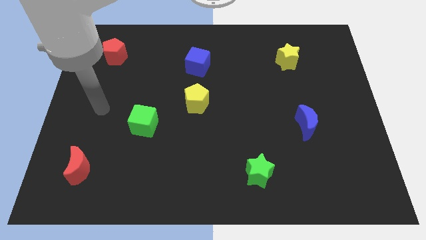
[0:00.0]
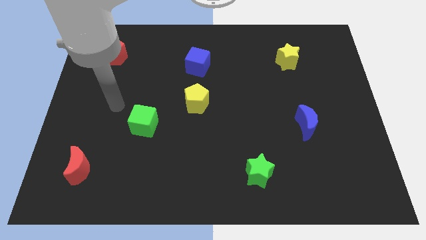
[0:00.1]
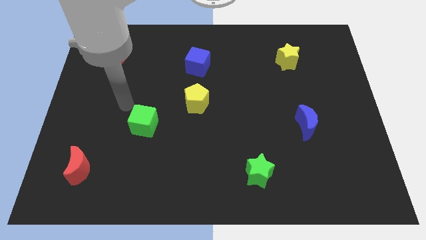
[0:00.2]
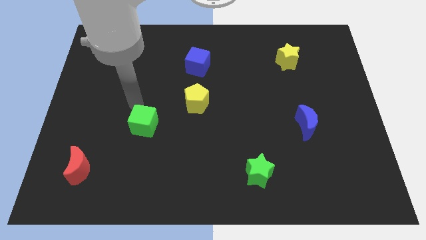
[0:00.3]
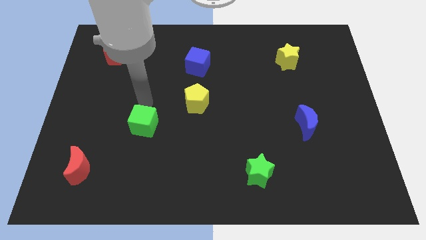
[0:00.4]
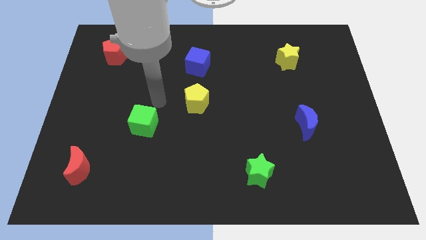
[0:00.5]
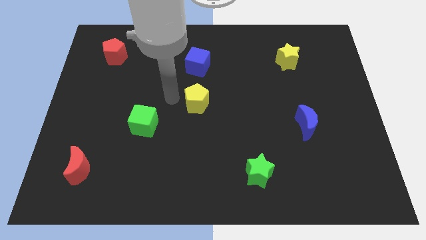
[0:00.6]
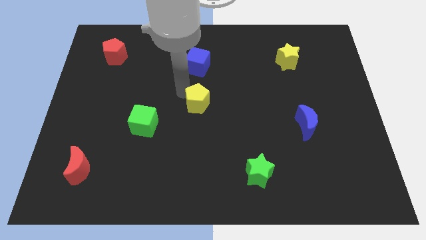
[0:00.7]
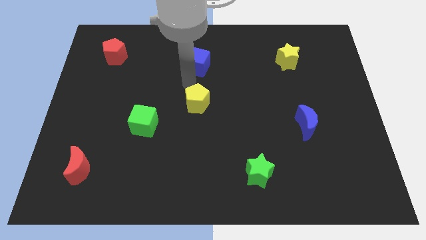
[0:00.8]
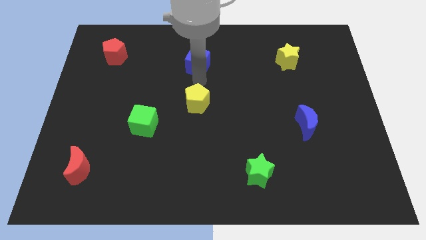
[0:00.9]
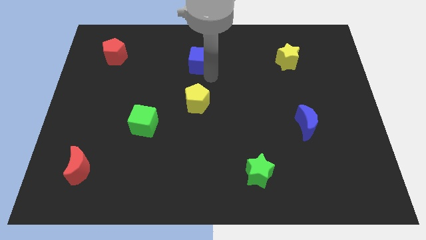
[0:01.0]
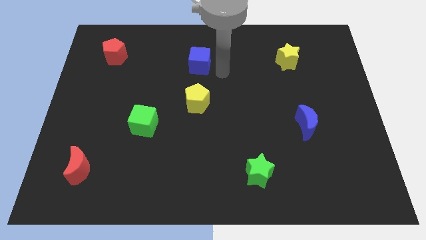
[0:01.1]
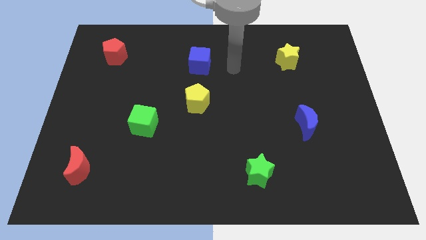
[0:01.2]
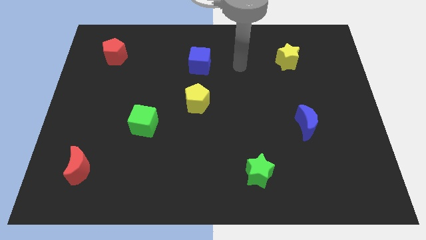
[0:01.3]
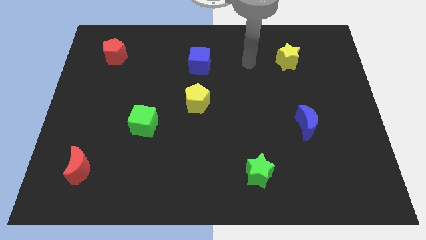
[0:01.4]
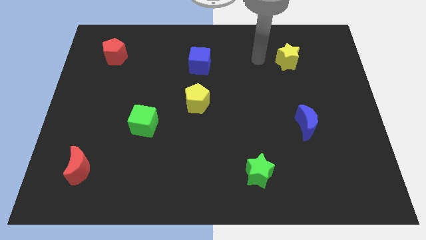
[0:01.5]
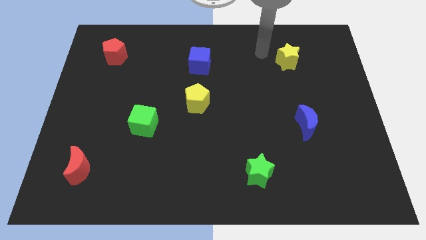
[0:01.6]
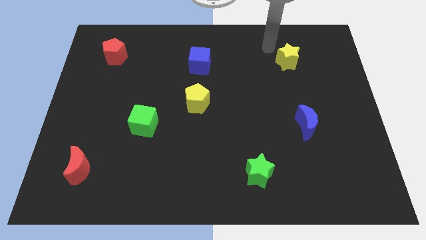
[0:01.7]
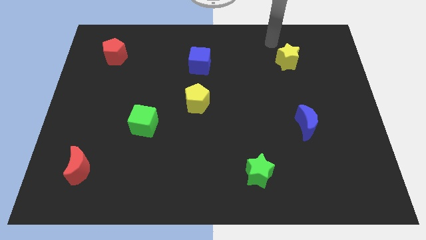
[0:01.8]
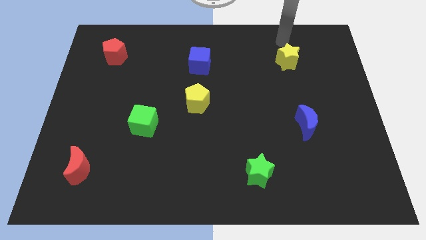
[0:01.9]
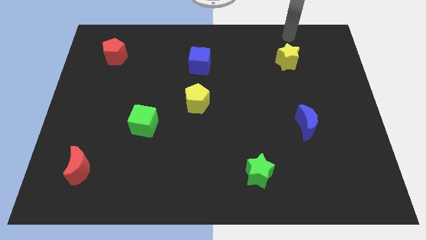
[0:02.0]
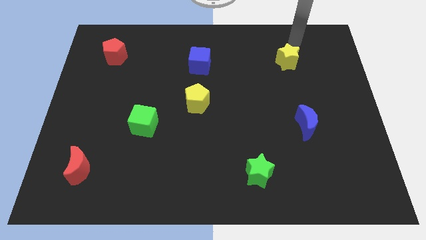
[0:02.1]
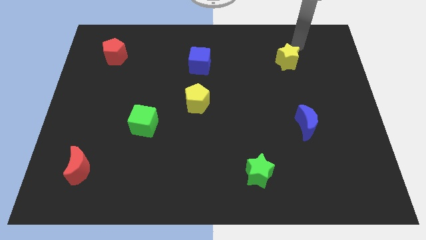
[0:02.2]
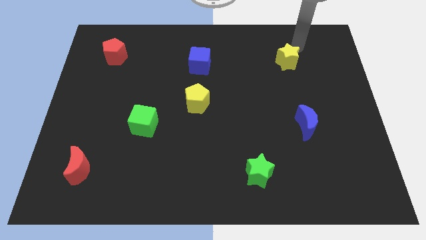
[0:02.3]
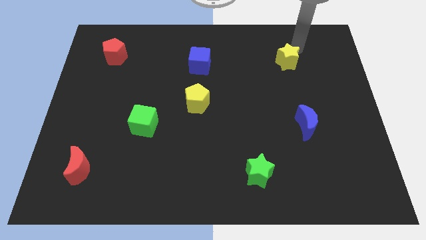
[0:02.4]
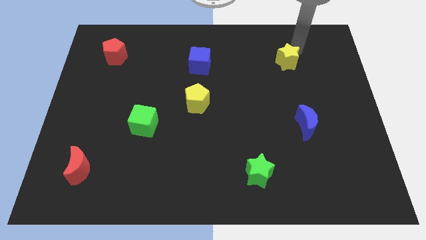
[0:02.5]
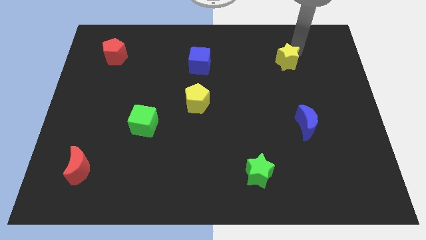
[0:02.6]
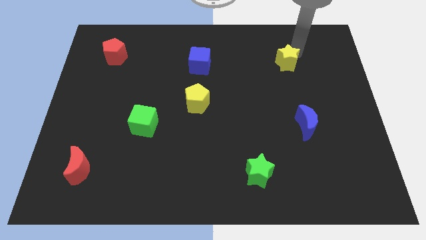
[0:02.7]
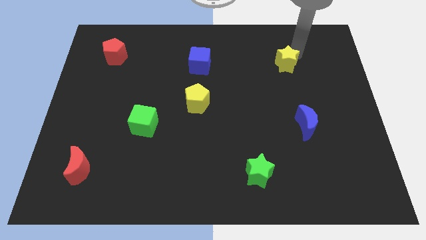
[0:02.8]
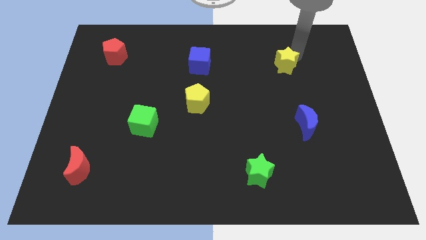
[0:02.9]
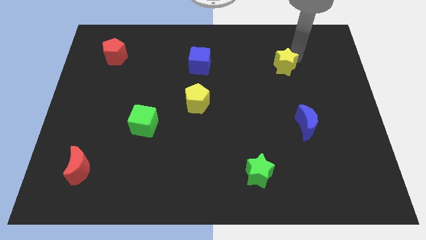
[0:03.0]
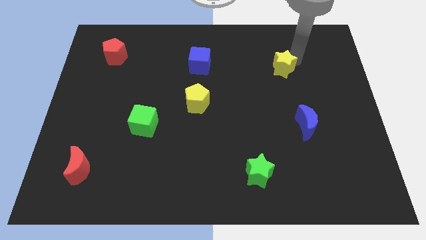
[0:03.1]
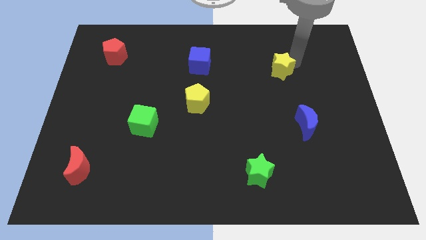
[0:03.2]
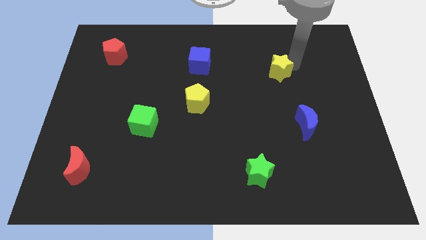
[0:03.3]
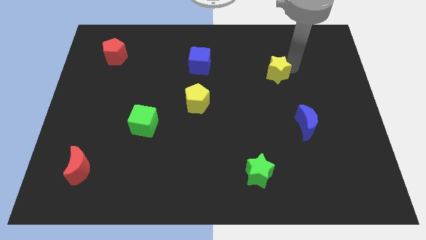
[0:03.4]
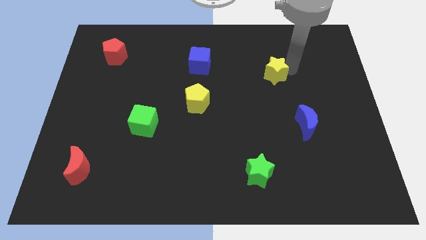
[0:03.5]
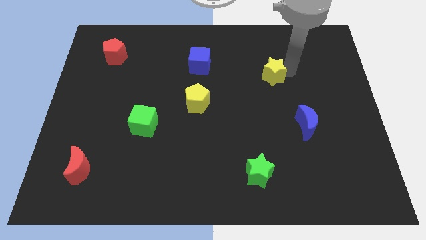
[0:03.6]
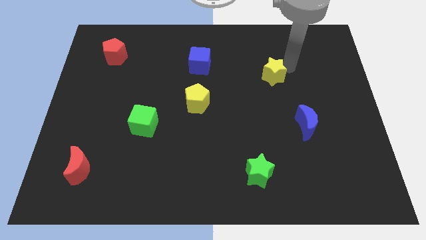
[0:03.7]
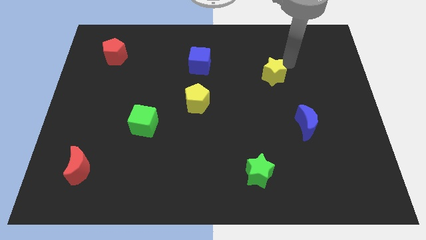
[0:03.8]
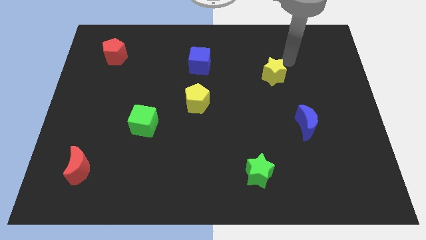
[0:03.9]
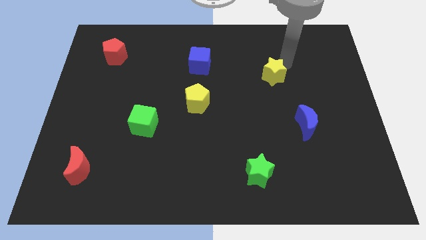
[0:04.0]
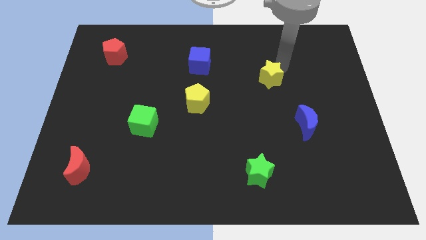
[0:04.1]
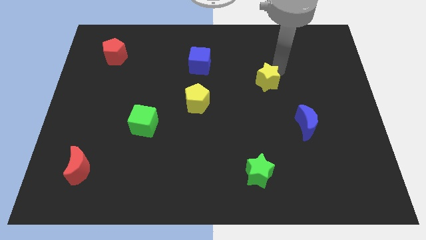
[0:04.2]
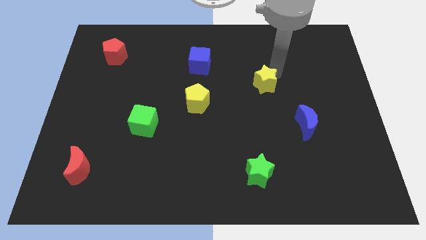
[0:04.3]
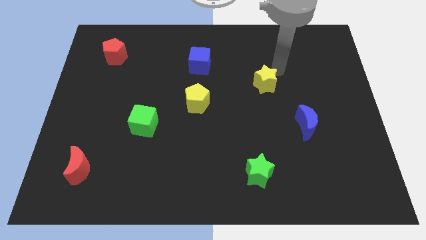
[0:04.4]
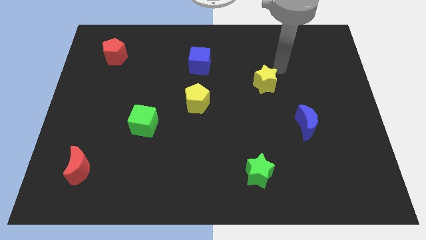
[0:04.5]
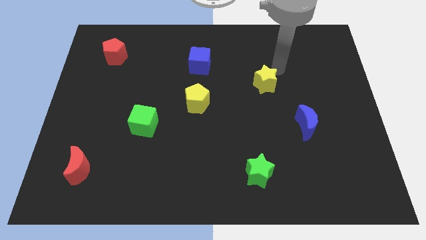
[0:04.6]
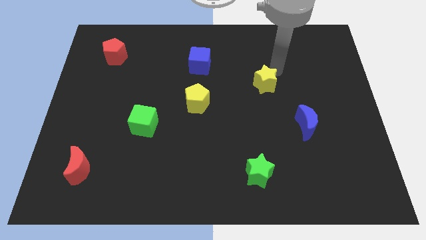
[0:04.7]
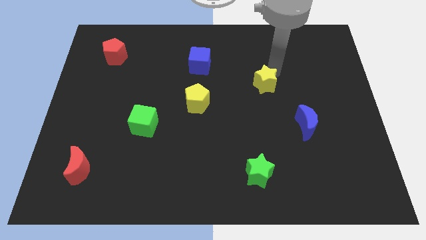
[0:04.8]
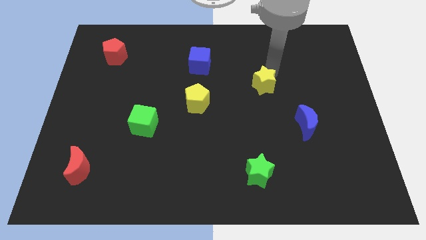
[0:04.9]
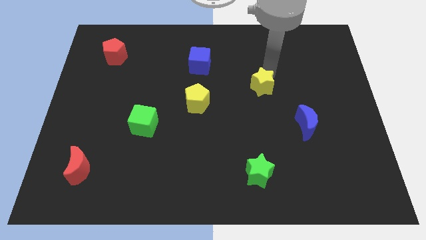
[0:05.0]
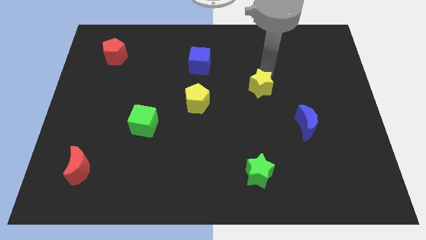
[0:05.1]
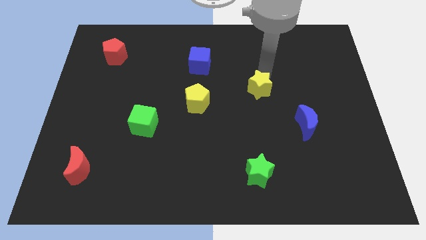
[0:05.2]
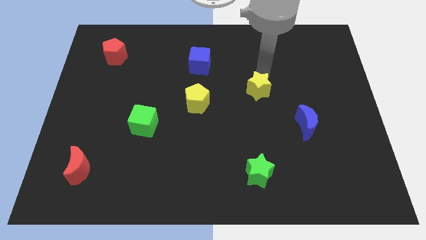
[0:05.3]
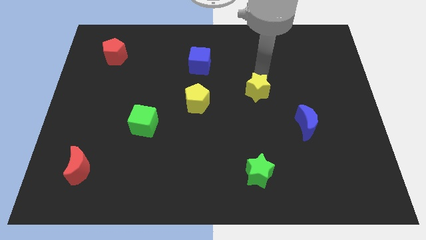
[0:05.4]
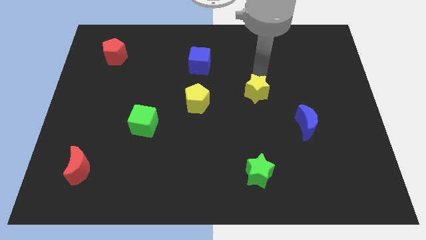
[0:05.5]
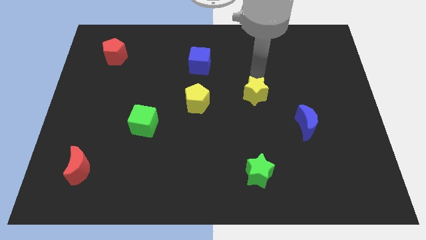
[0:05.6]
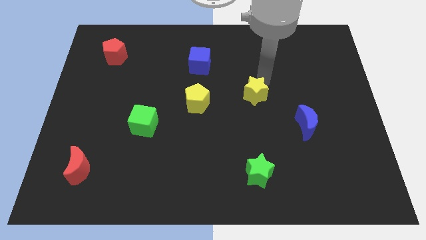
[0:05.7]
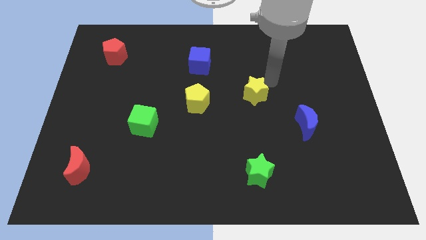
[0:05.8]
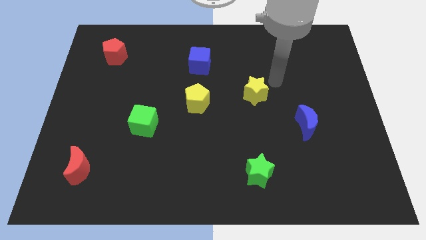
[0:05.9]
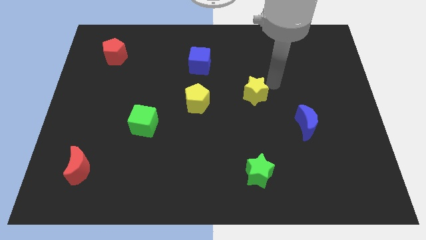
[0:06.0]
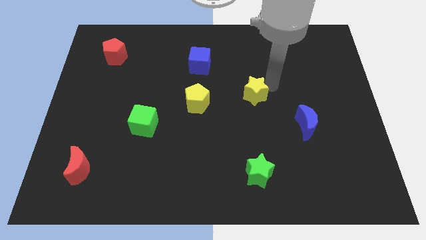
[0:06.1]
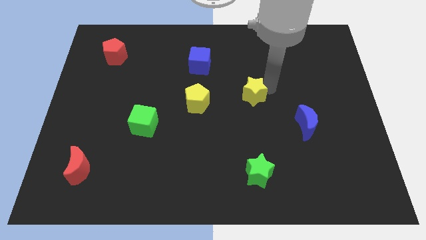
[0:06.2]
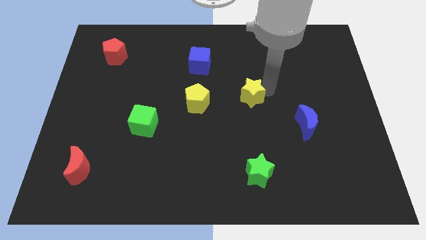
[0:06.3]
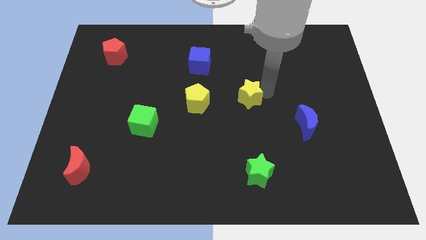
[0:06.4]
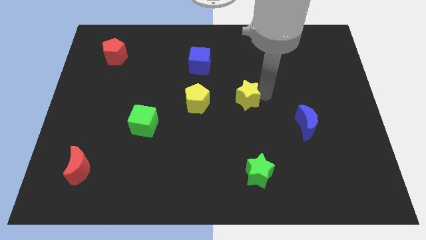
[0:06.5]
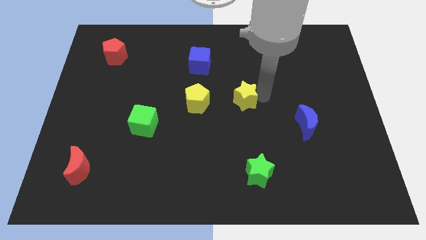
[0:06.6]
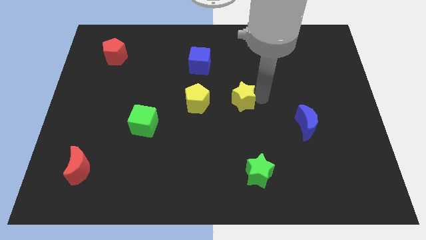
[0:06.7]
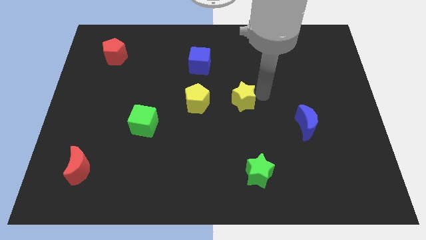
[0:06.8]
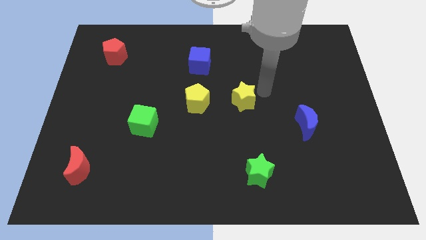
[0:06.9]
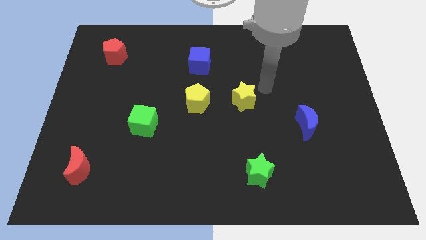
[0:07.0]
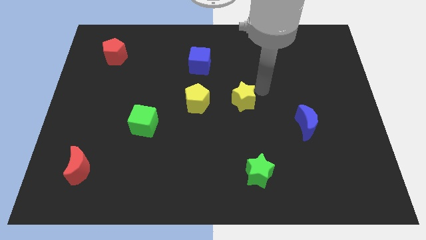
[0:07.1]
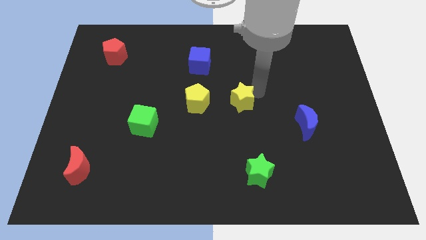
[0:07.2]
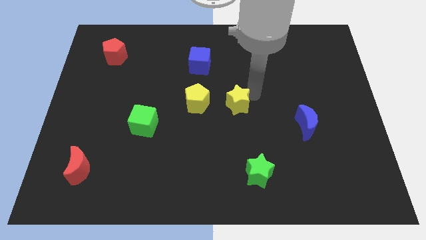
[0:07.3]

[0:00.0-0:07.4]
push the yellow star downwards and to the left diagonally

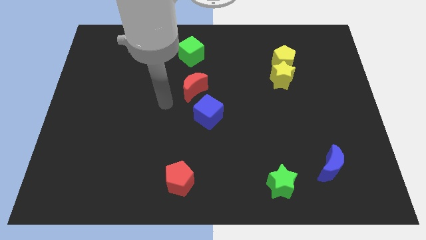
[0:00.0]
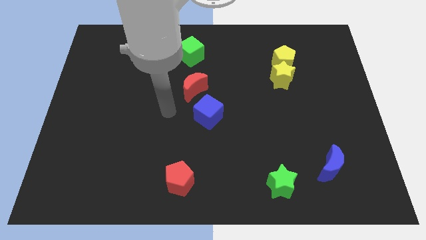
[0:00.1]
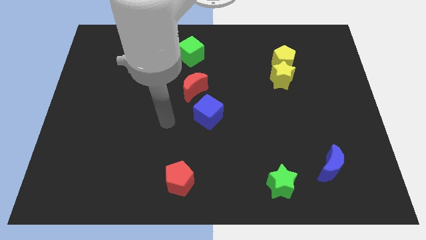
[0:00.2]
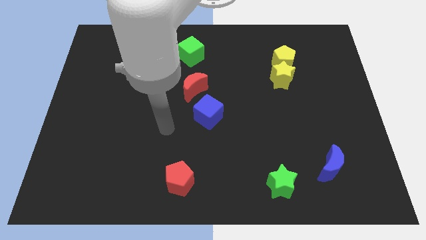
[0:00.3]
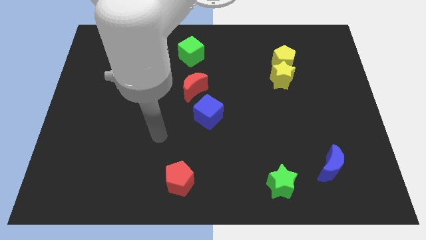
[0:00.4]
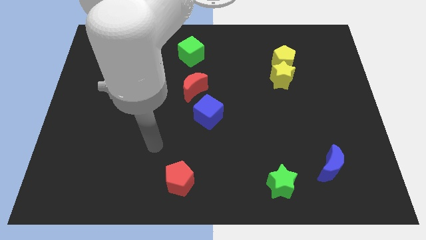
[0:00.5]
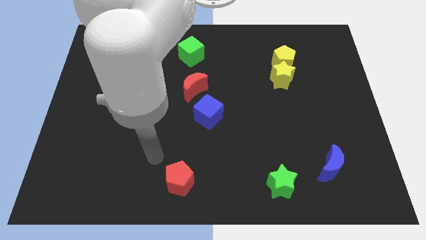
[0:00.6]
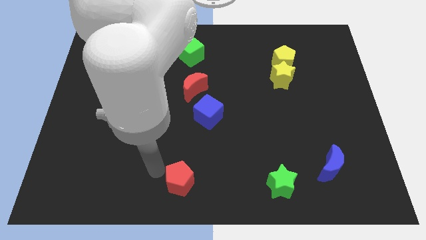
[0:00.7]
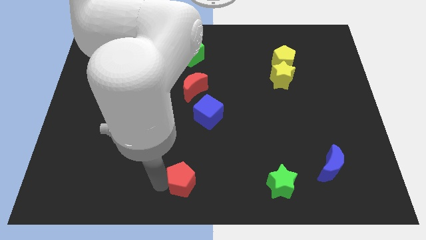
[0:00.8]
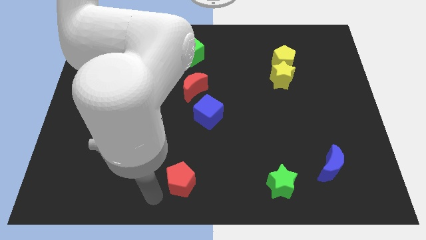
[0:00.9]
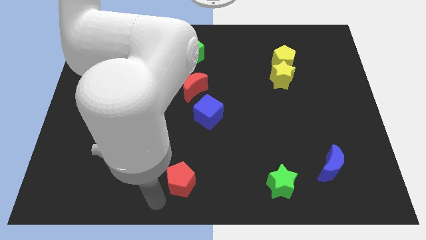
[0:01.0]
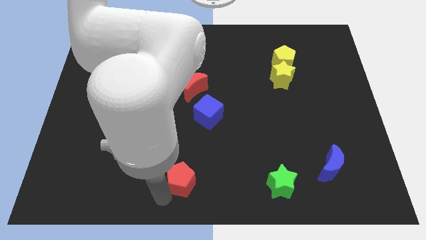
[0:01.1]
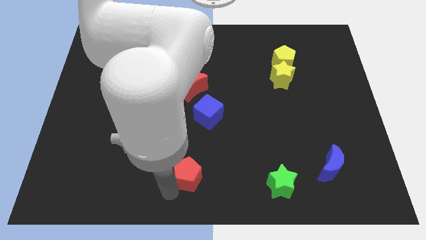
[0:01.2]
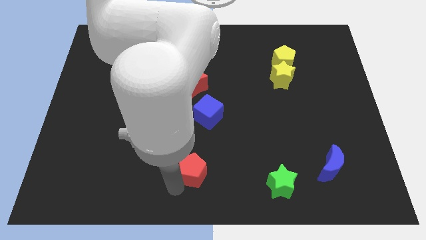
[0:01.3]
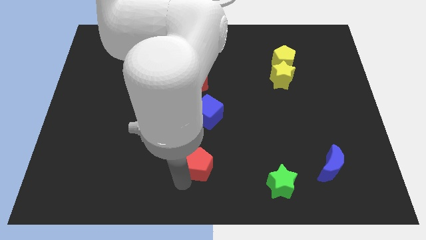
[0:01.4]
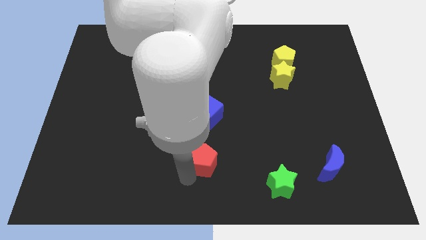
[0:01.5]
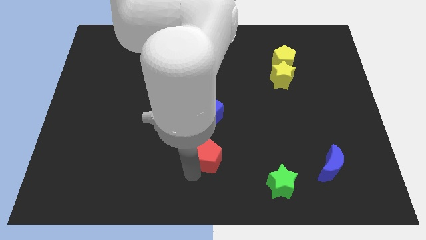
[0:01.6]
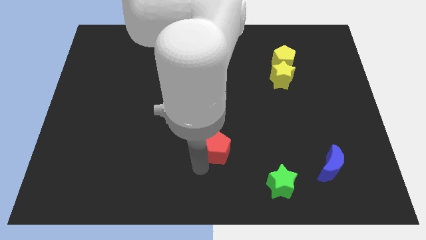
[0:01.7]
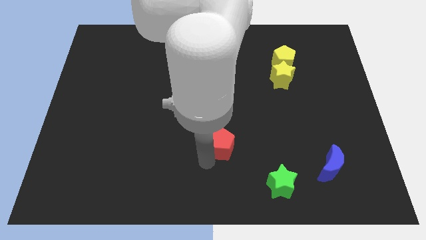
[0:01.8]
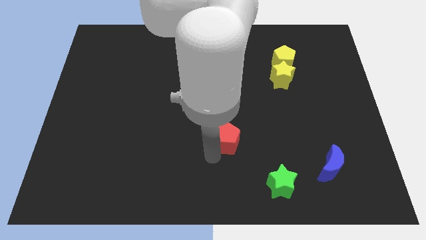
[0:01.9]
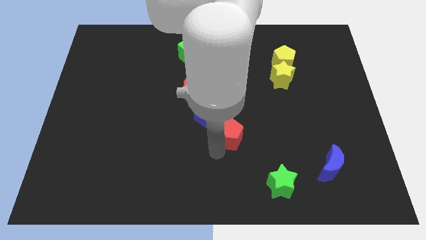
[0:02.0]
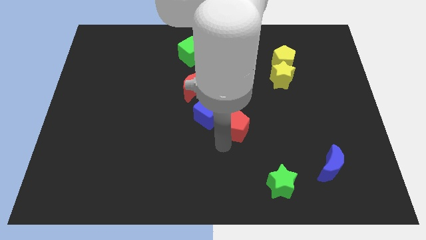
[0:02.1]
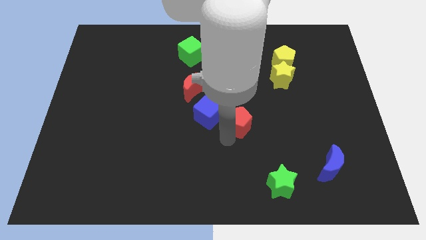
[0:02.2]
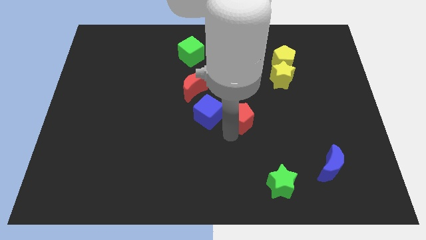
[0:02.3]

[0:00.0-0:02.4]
move the red pentagon diagonally up and to the right
